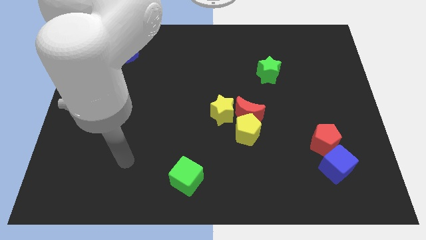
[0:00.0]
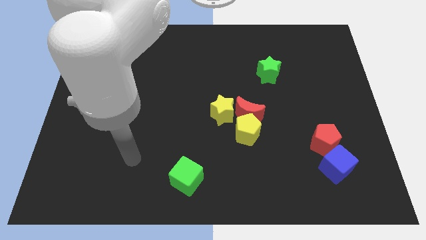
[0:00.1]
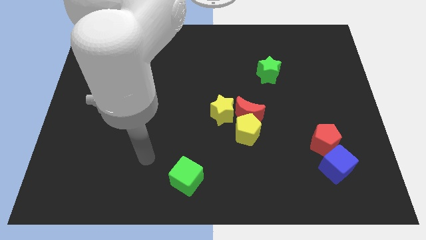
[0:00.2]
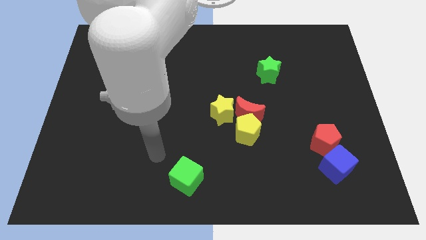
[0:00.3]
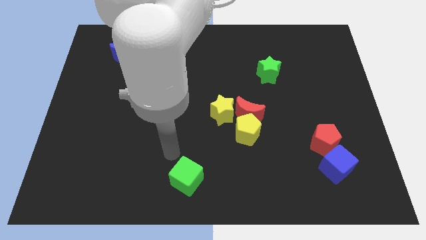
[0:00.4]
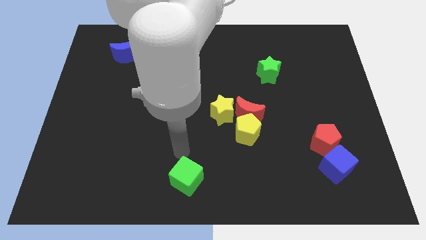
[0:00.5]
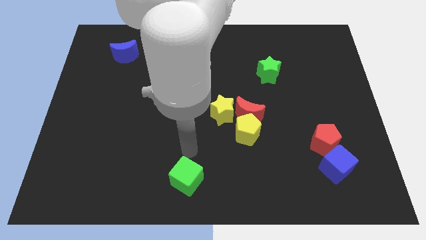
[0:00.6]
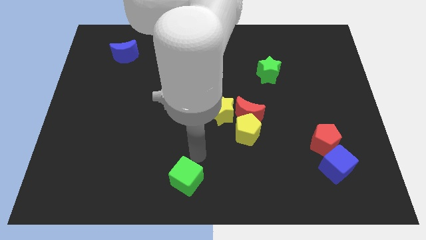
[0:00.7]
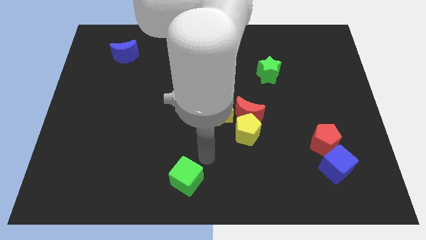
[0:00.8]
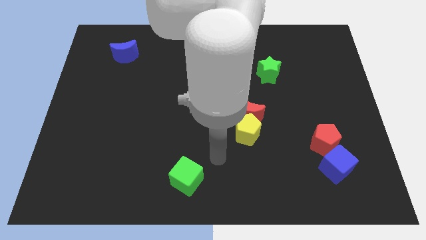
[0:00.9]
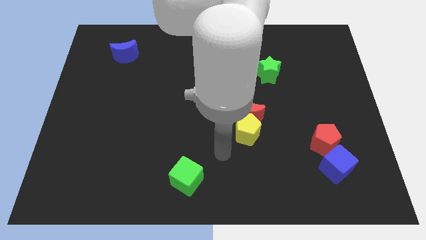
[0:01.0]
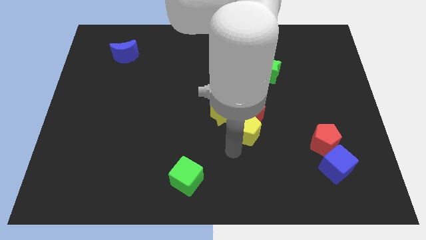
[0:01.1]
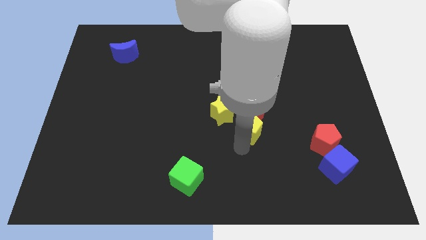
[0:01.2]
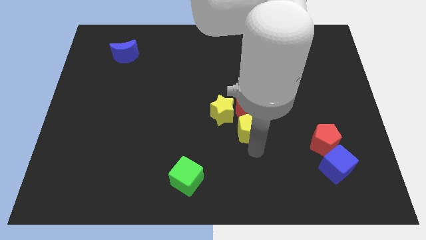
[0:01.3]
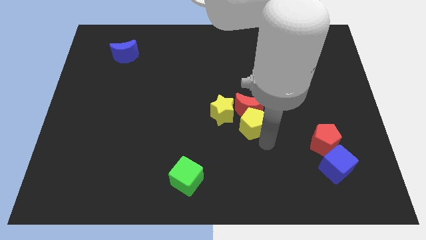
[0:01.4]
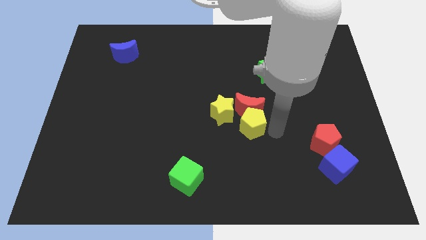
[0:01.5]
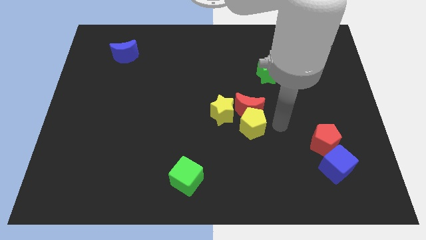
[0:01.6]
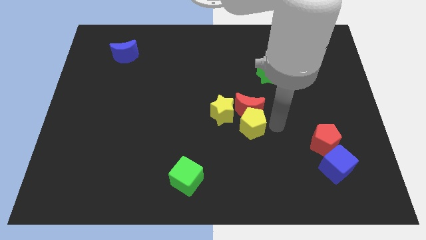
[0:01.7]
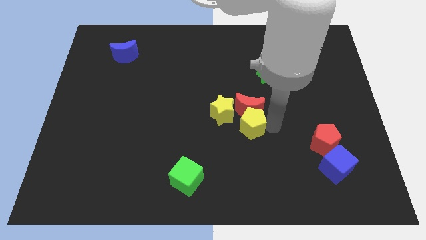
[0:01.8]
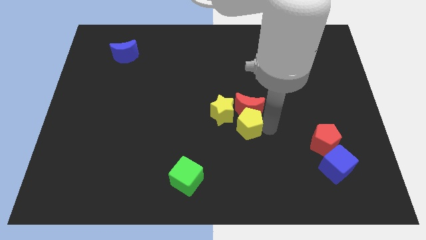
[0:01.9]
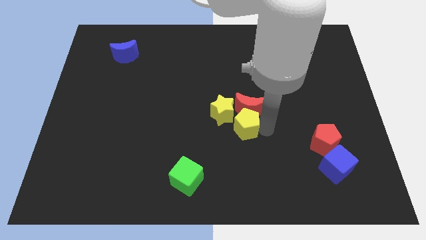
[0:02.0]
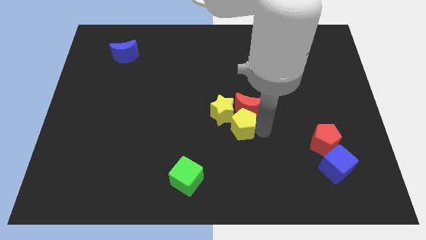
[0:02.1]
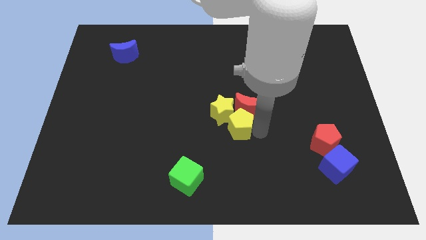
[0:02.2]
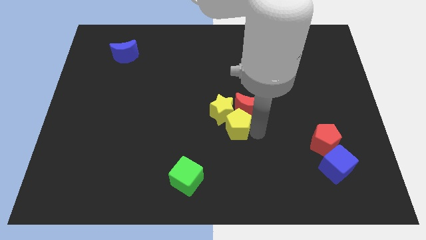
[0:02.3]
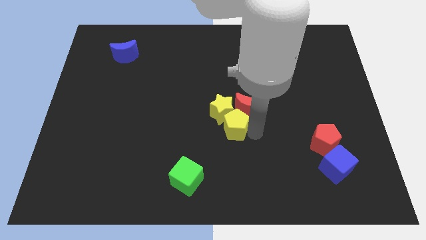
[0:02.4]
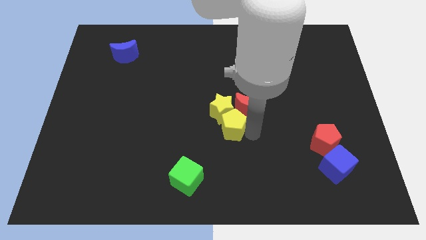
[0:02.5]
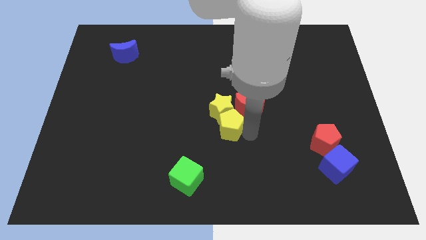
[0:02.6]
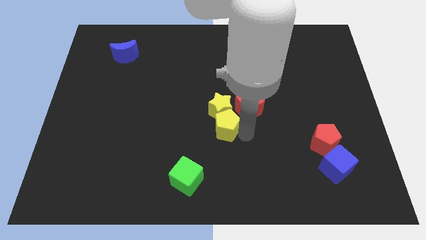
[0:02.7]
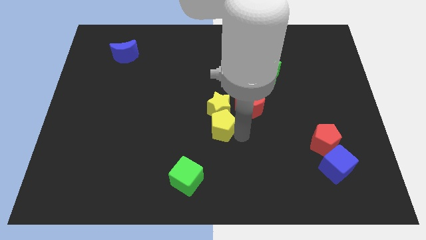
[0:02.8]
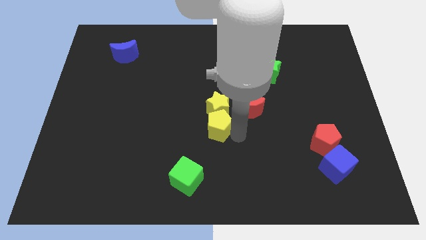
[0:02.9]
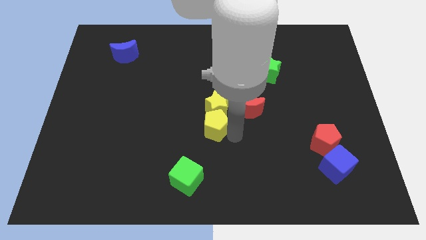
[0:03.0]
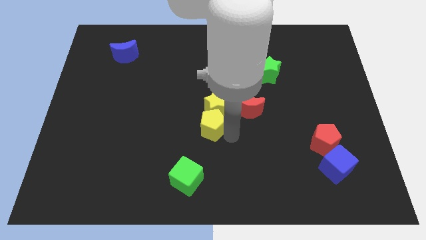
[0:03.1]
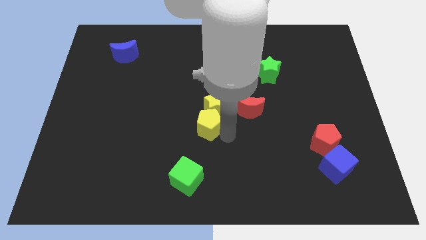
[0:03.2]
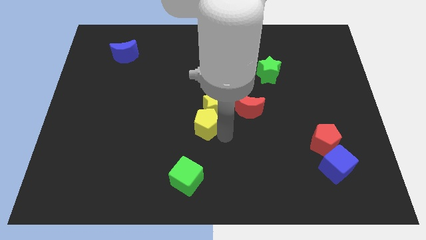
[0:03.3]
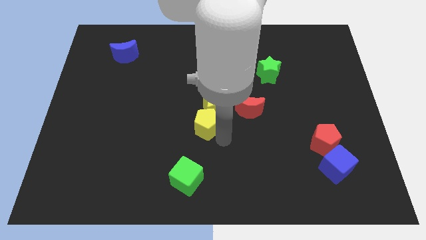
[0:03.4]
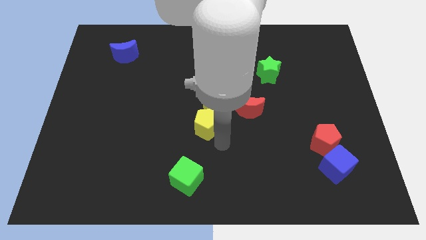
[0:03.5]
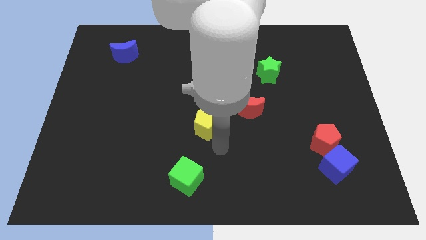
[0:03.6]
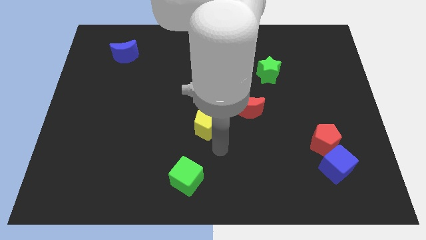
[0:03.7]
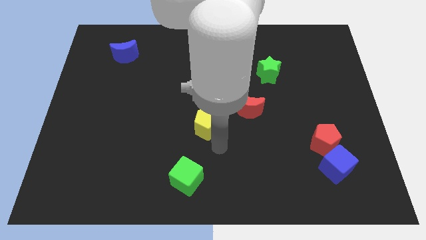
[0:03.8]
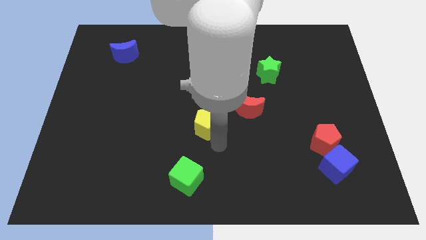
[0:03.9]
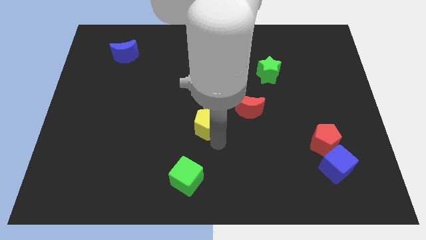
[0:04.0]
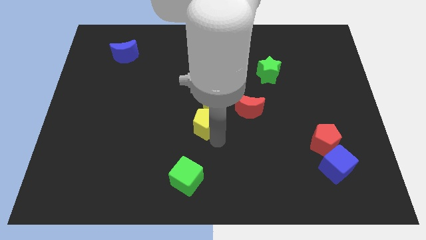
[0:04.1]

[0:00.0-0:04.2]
slide the yellow pentagon slightly up and to the left

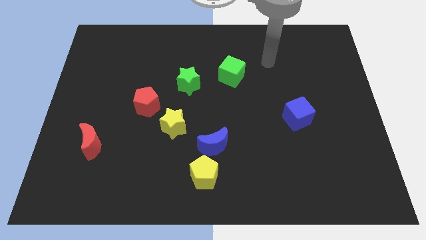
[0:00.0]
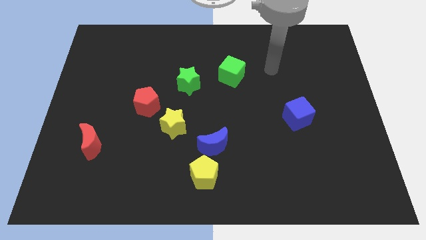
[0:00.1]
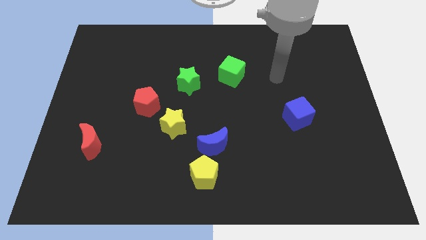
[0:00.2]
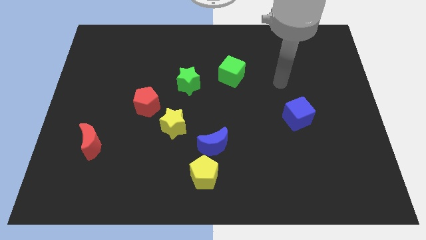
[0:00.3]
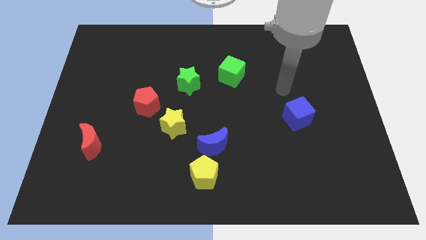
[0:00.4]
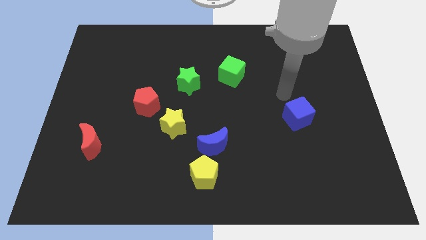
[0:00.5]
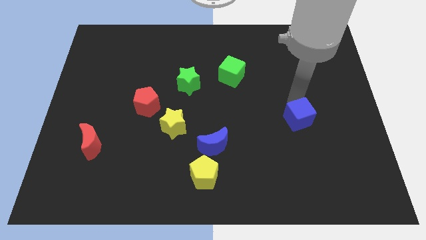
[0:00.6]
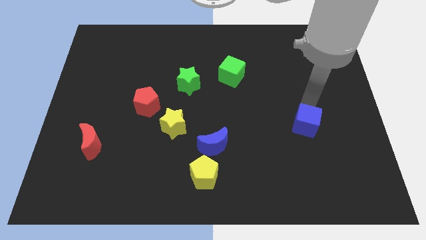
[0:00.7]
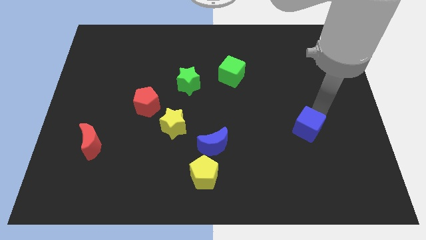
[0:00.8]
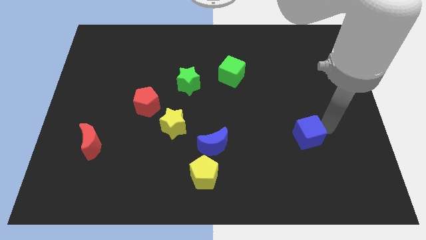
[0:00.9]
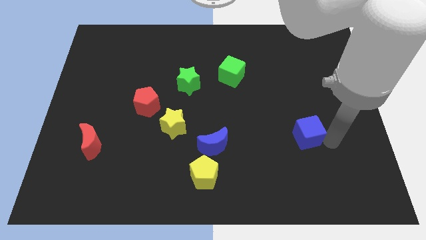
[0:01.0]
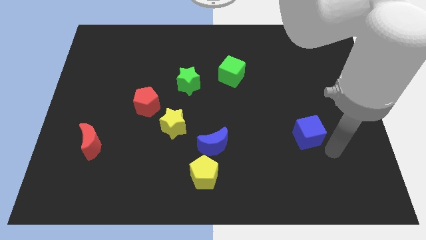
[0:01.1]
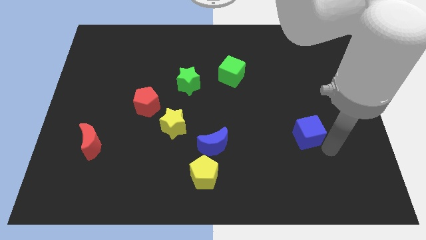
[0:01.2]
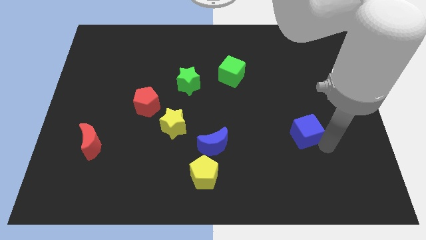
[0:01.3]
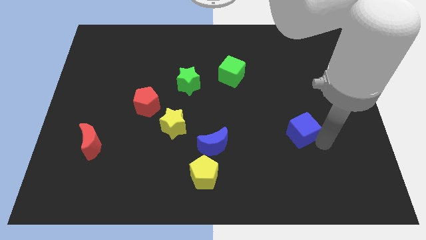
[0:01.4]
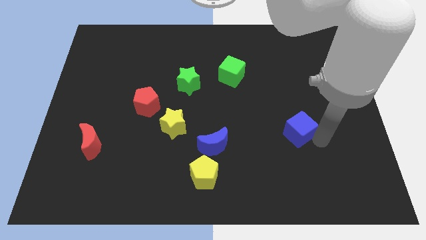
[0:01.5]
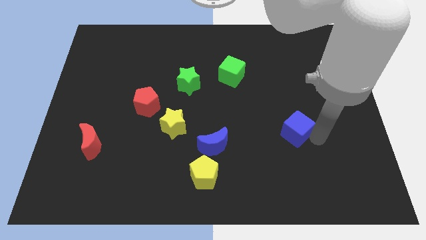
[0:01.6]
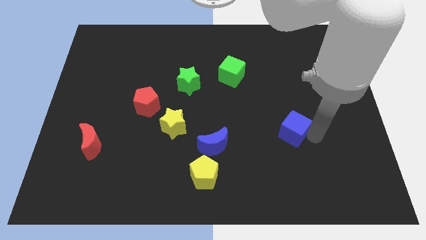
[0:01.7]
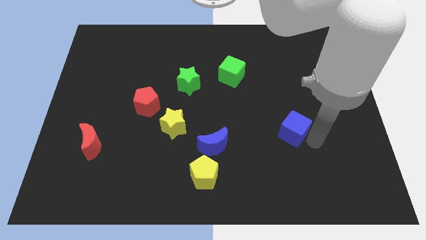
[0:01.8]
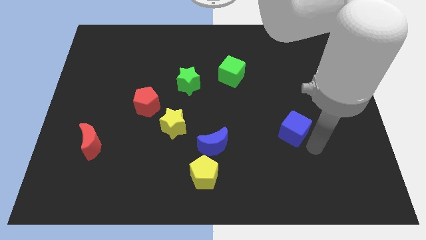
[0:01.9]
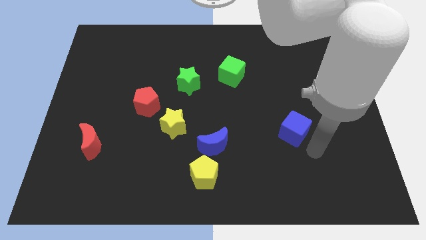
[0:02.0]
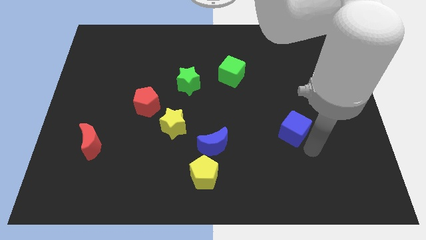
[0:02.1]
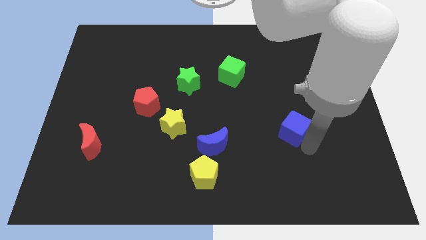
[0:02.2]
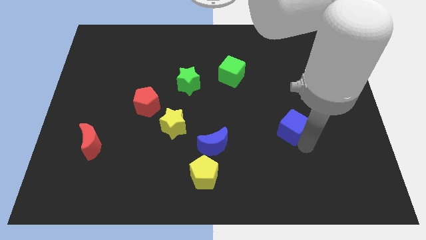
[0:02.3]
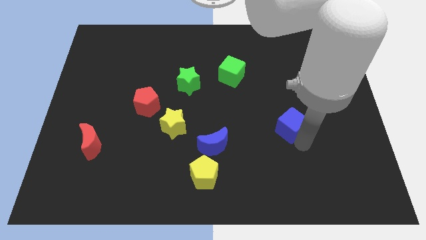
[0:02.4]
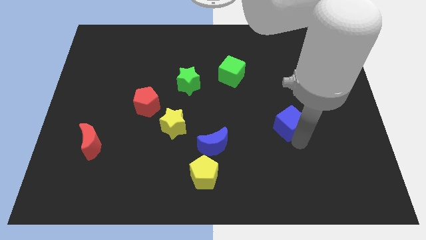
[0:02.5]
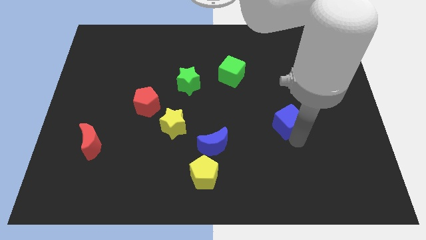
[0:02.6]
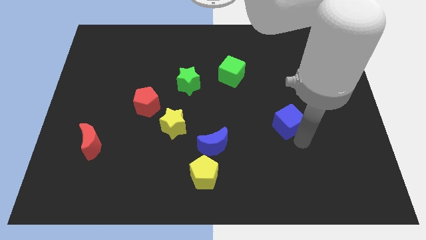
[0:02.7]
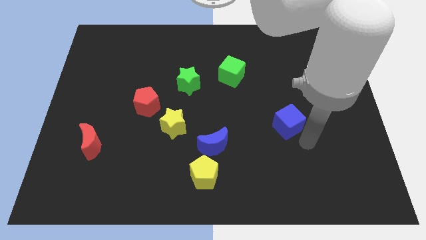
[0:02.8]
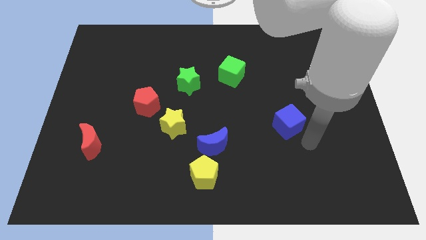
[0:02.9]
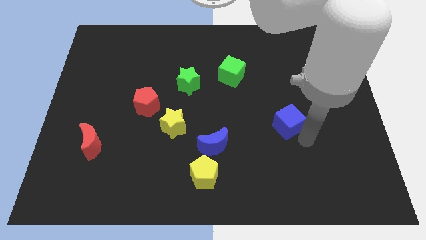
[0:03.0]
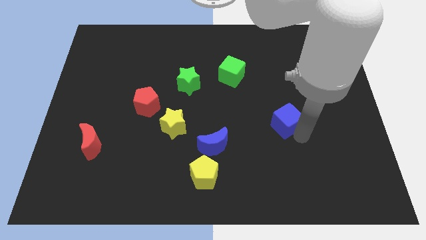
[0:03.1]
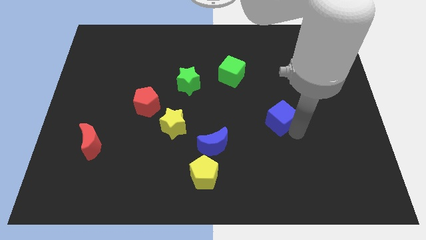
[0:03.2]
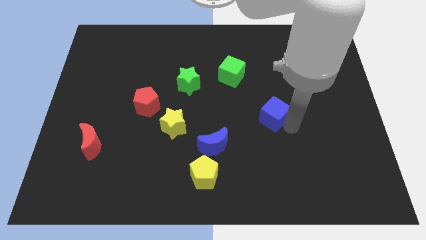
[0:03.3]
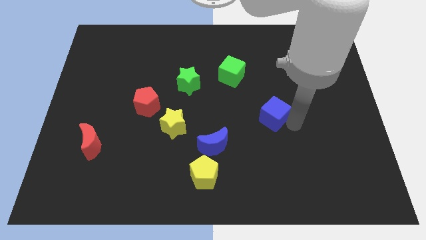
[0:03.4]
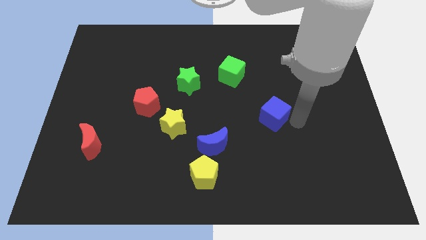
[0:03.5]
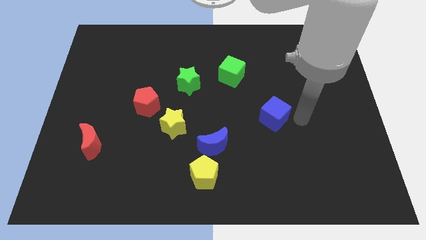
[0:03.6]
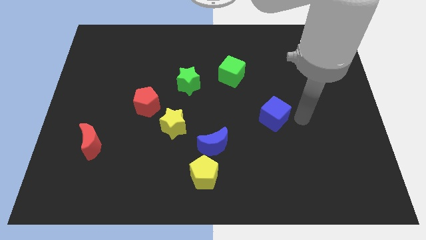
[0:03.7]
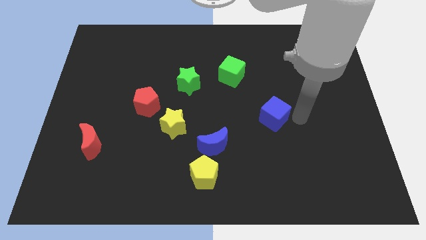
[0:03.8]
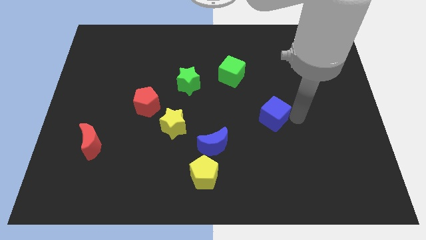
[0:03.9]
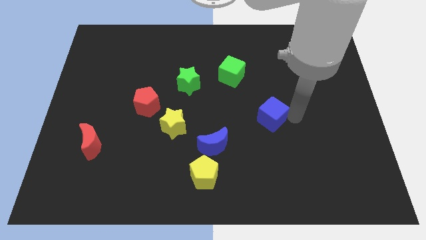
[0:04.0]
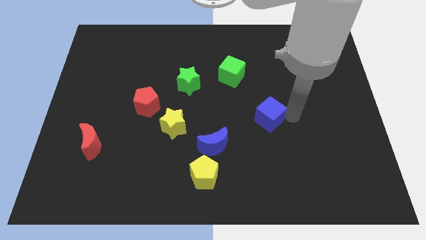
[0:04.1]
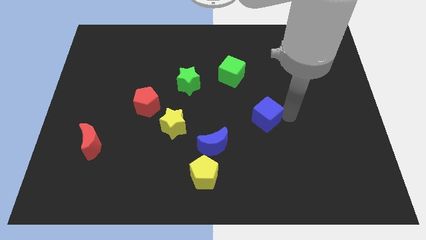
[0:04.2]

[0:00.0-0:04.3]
slide the blue cube a bit left
